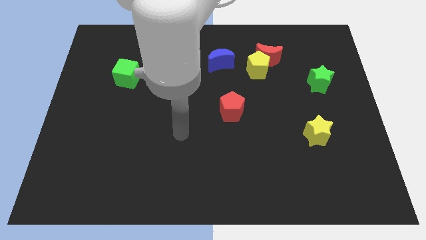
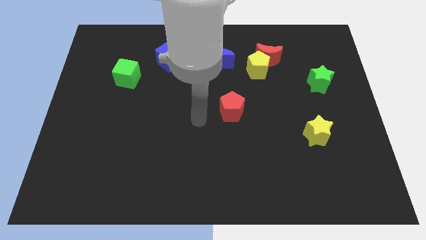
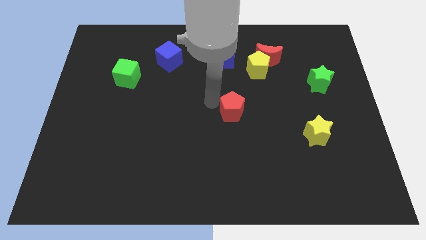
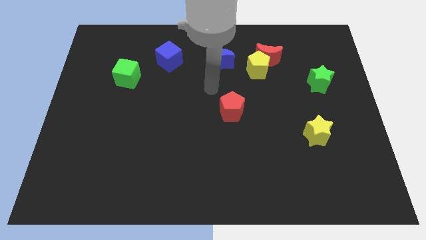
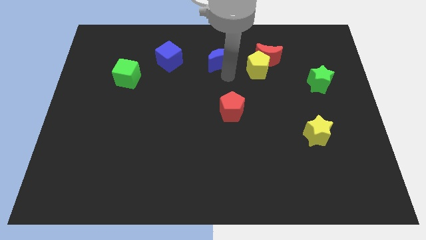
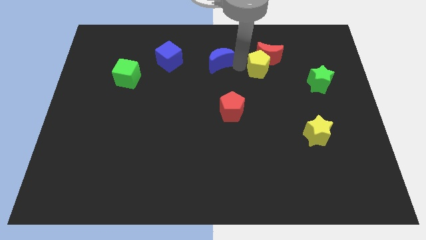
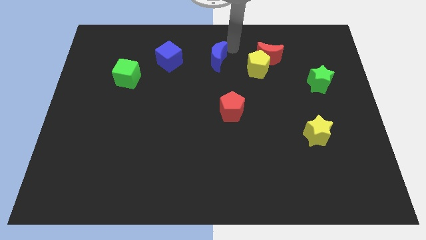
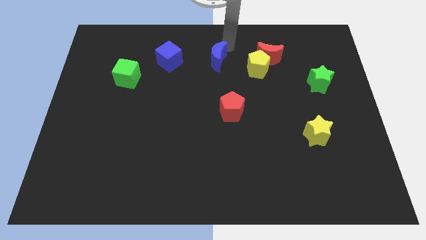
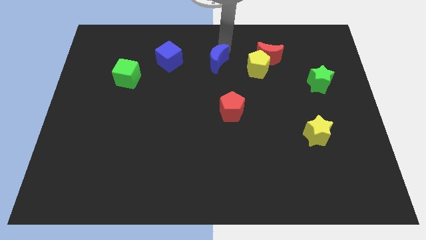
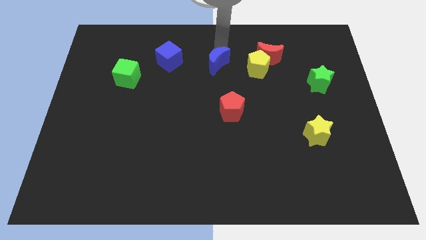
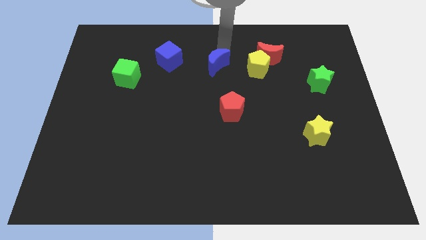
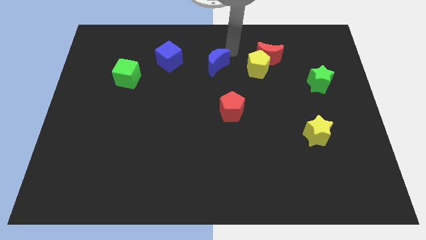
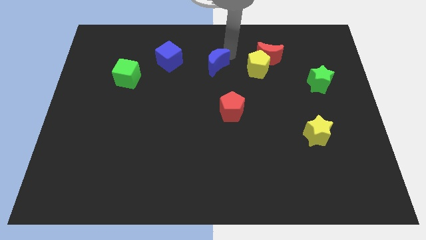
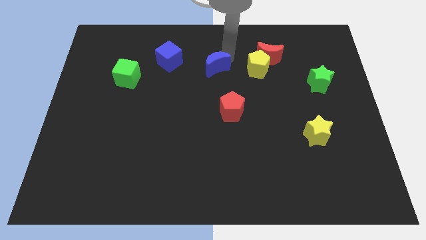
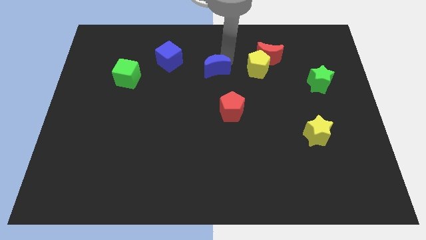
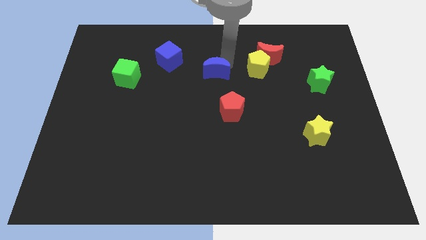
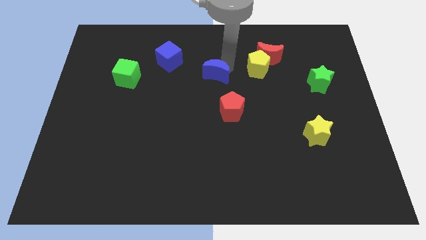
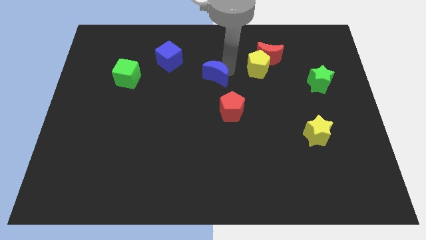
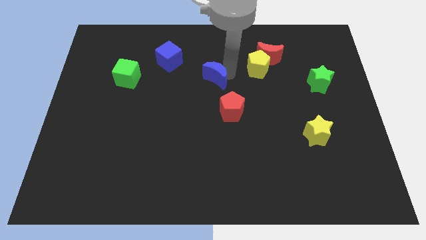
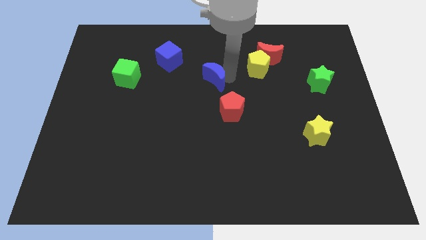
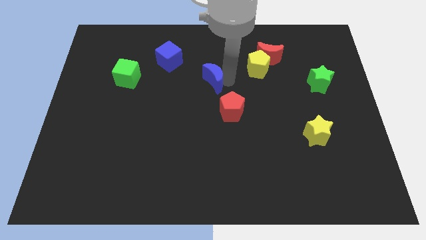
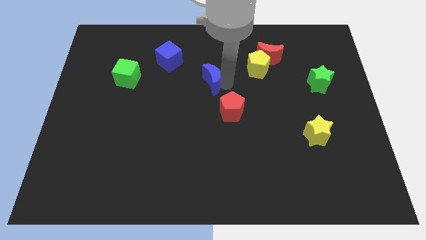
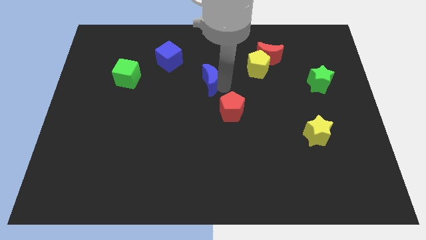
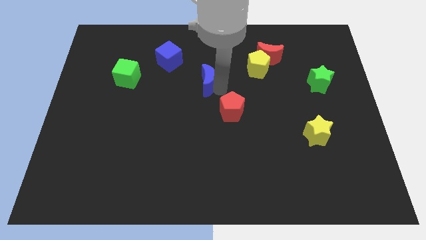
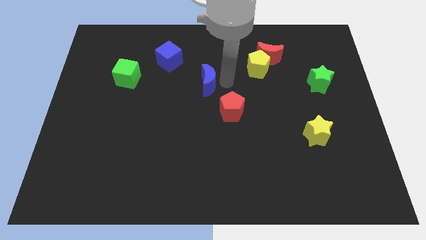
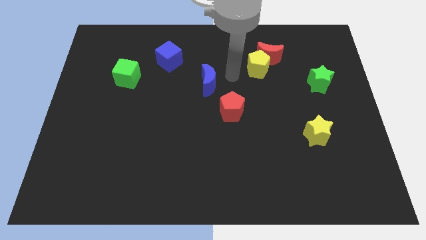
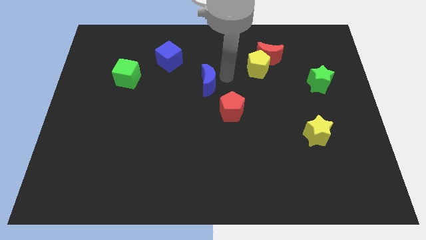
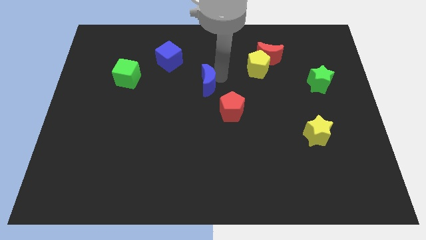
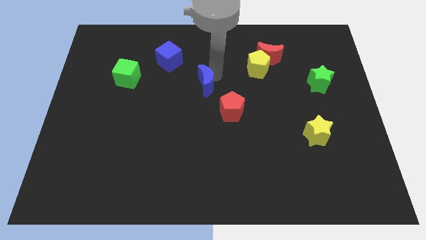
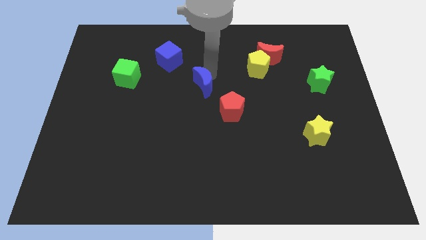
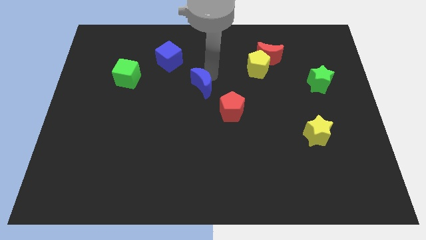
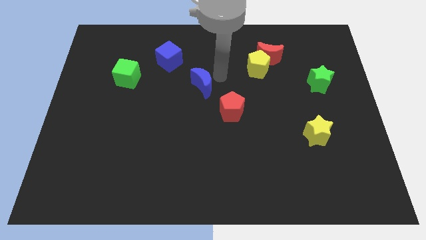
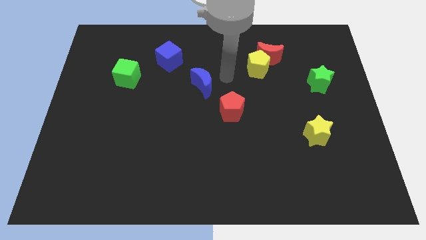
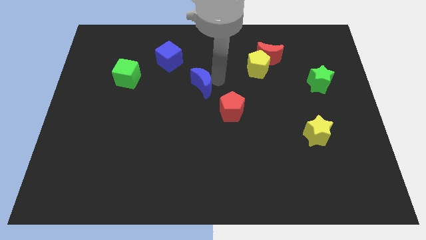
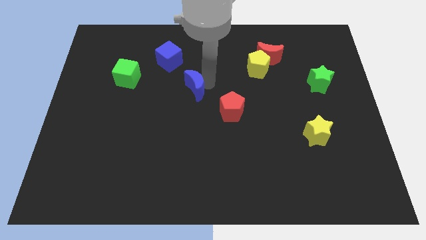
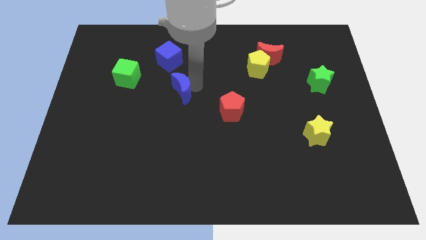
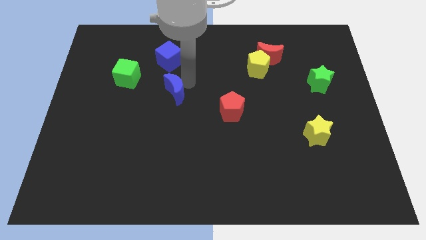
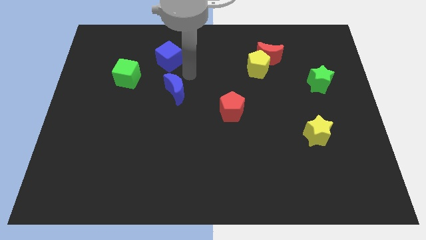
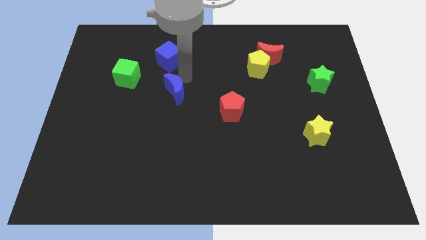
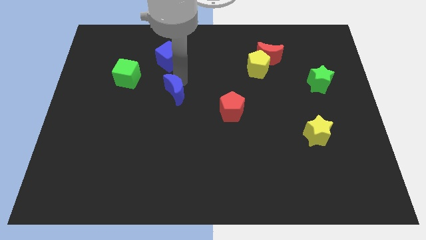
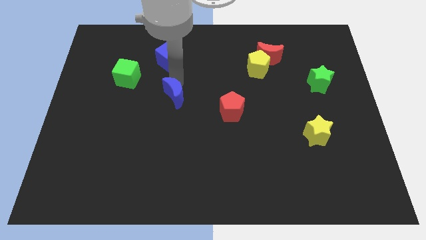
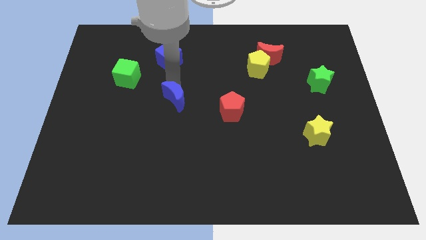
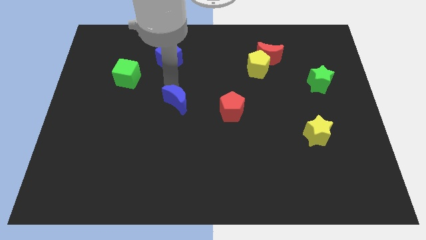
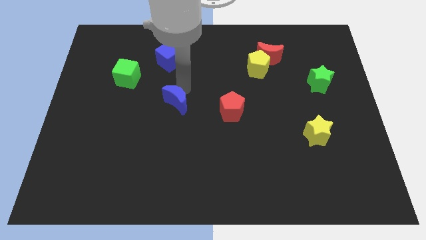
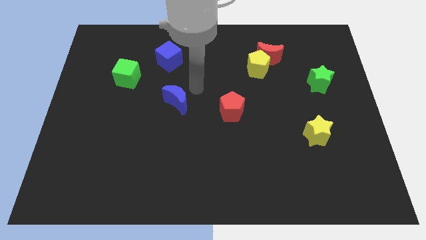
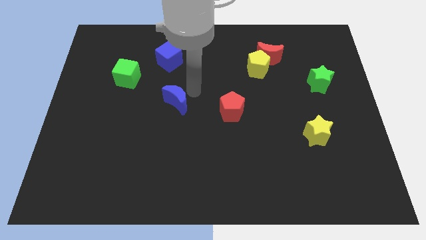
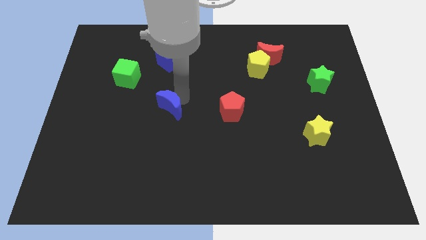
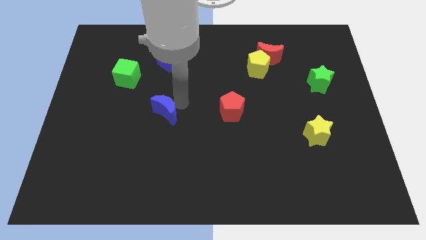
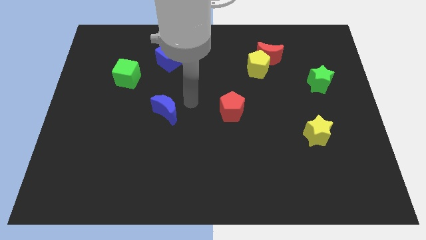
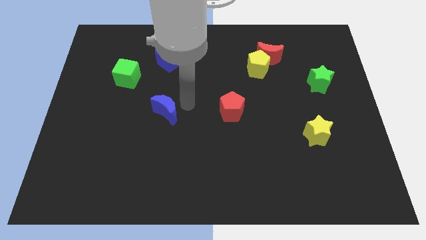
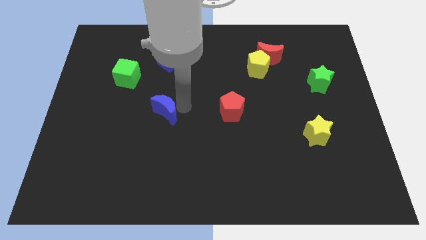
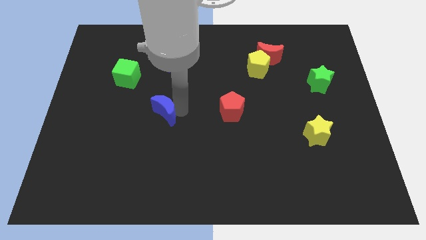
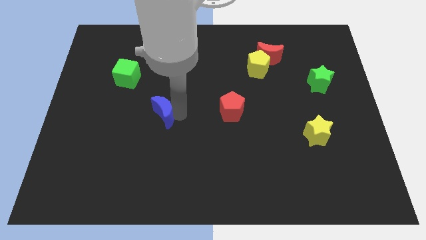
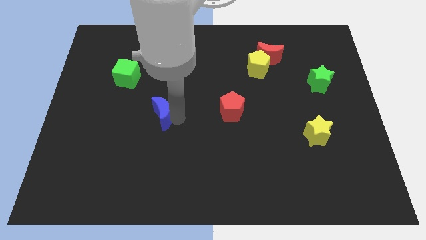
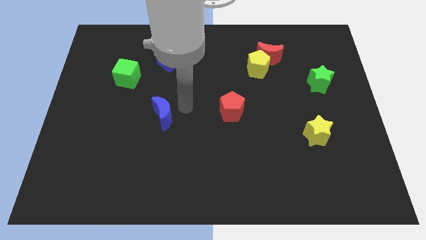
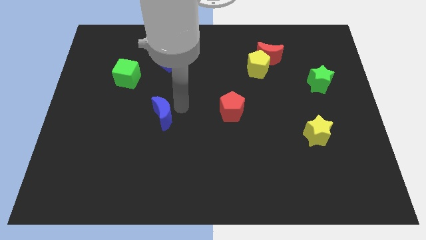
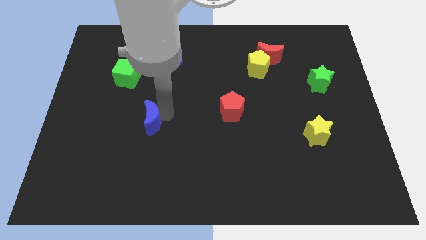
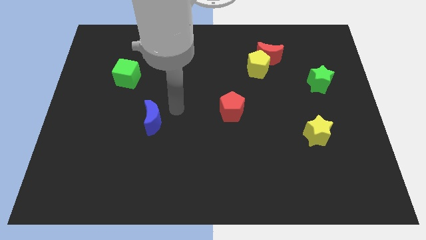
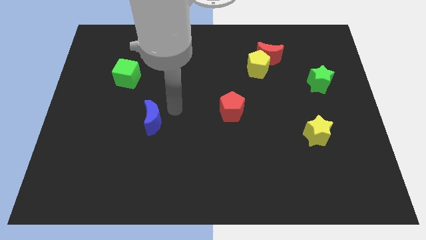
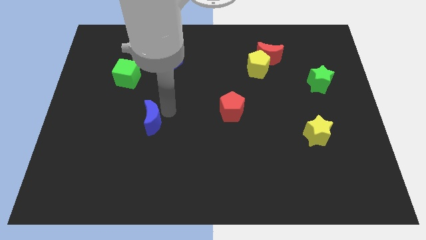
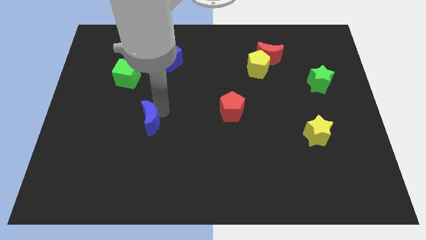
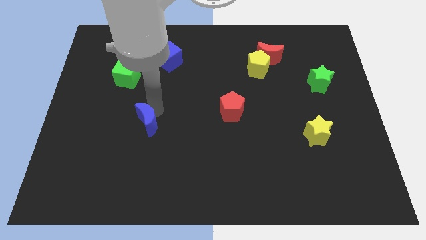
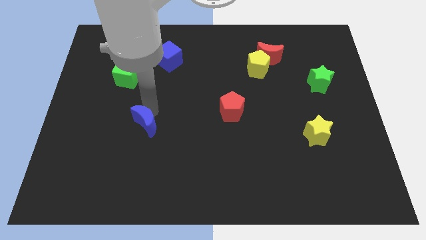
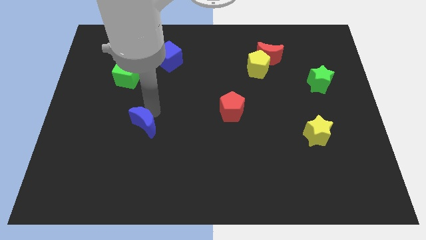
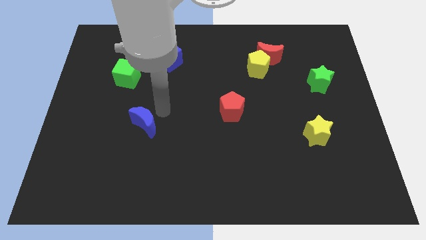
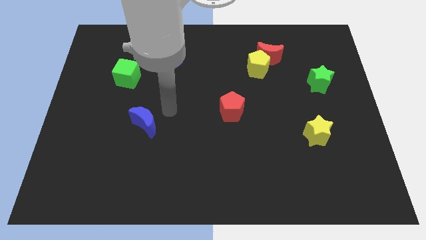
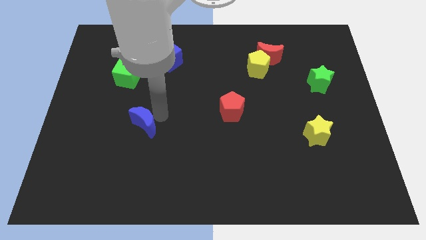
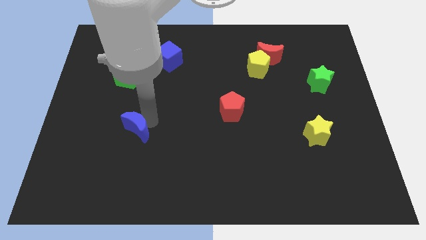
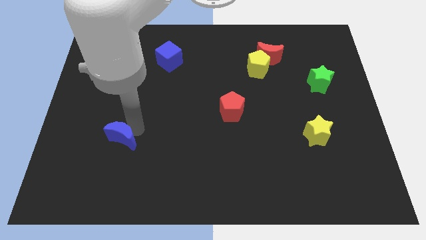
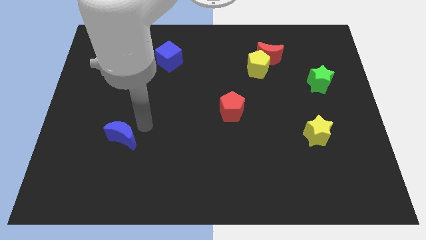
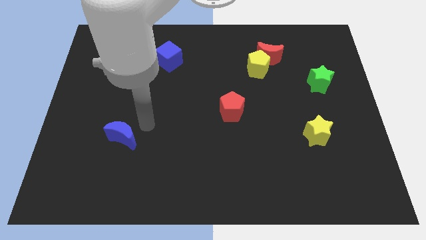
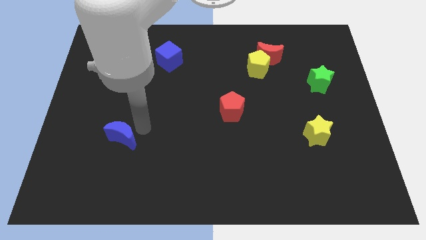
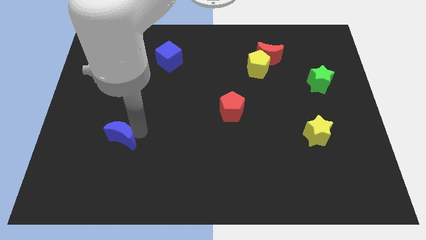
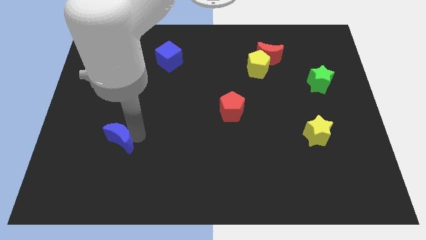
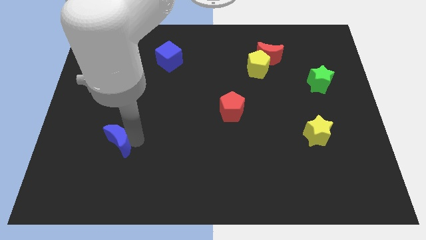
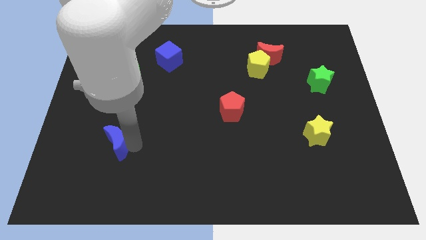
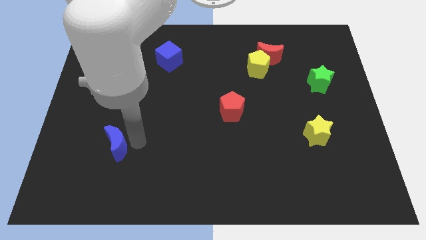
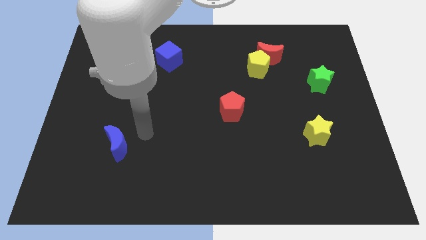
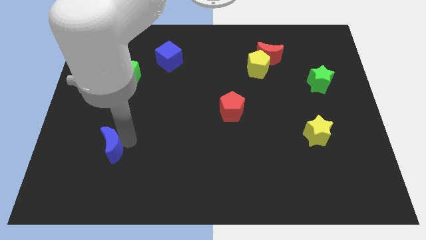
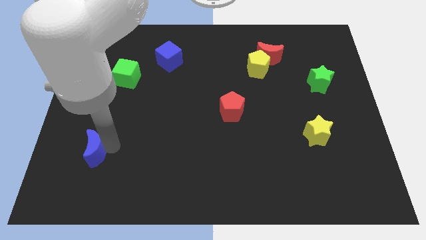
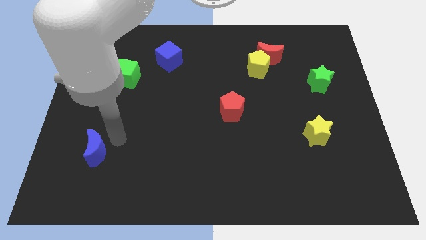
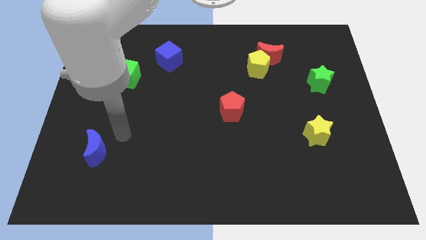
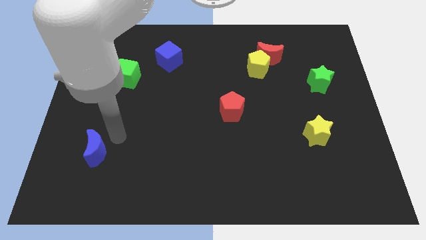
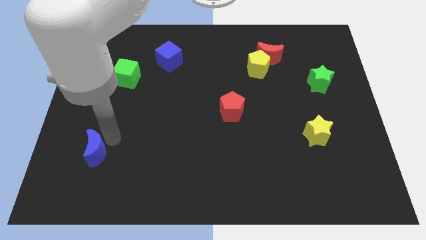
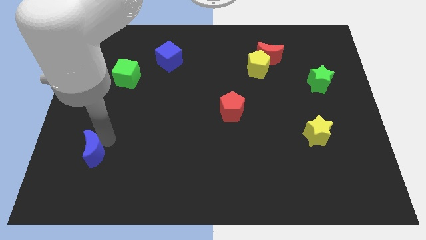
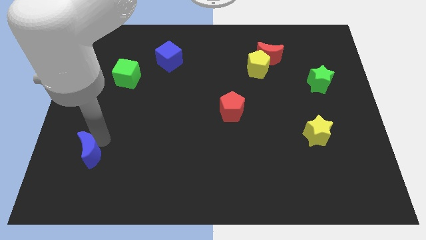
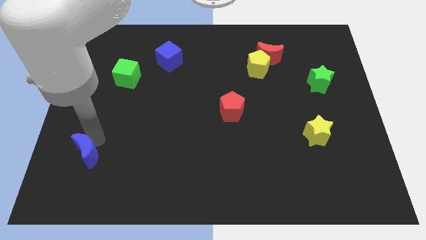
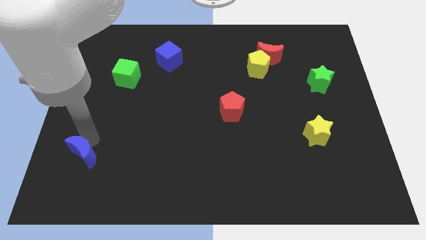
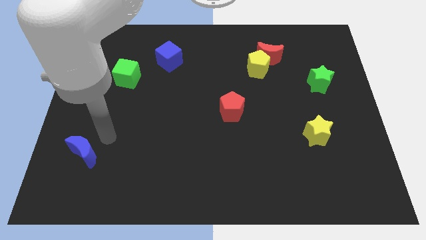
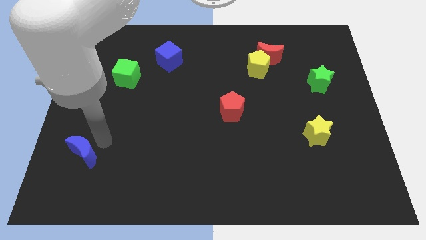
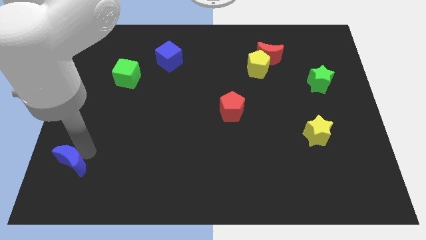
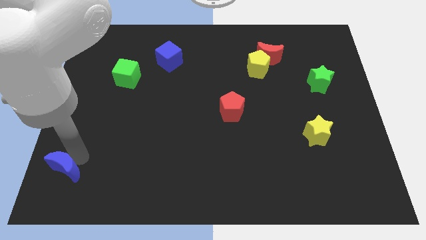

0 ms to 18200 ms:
put the blue moon to the bottom left of the board
